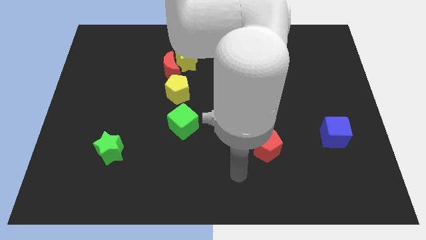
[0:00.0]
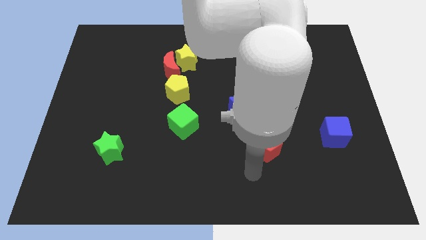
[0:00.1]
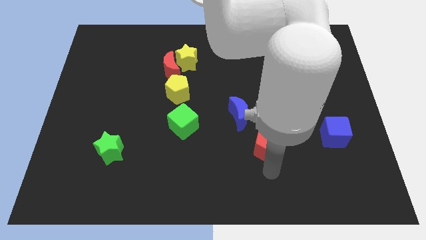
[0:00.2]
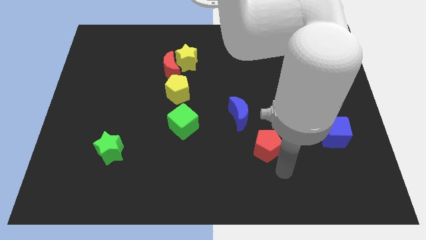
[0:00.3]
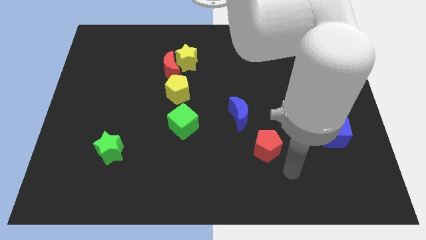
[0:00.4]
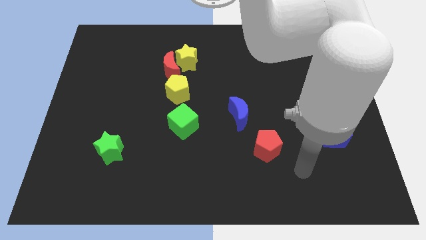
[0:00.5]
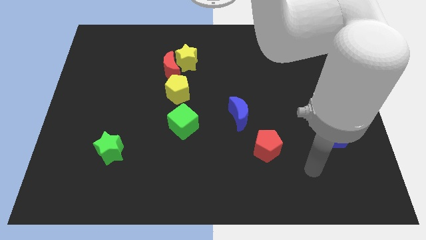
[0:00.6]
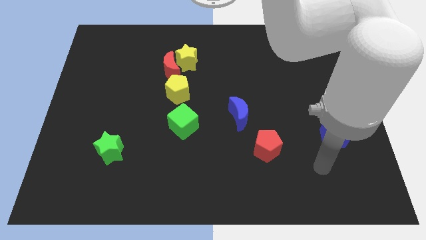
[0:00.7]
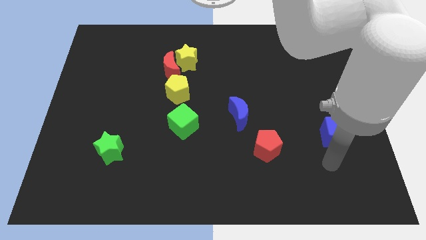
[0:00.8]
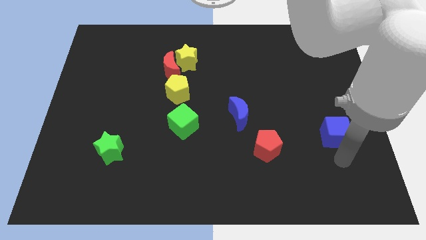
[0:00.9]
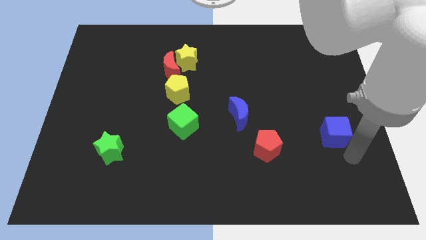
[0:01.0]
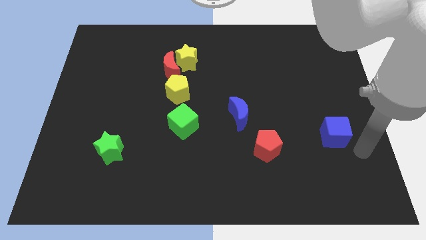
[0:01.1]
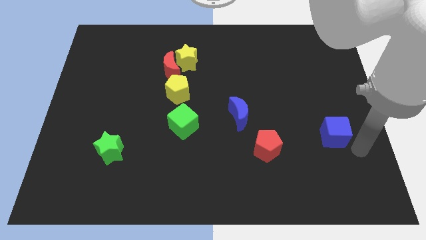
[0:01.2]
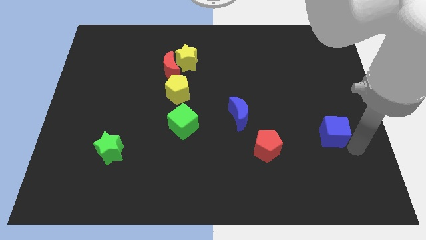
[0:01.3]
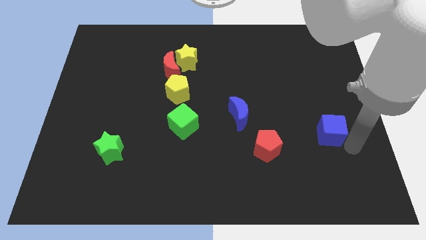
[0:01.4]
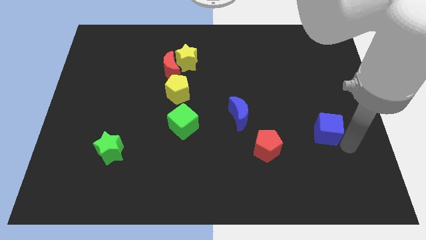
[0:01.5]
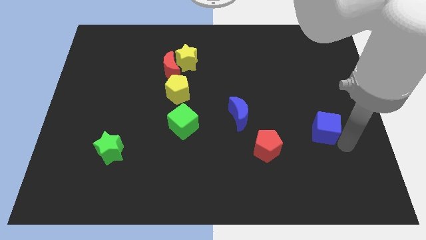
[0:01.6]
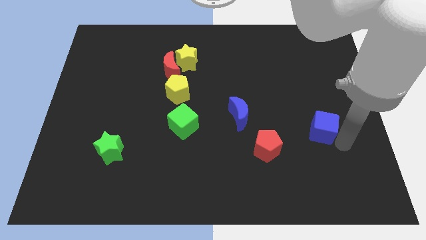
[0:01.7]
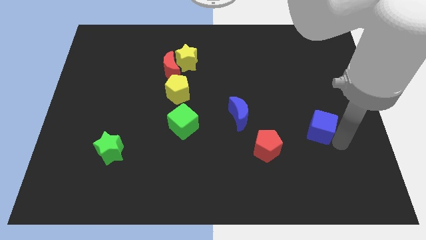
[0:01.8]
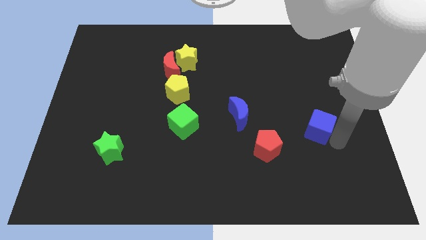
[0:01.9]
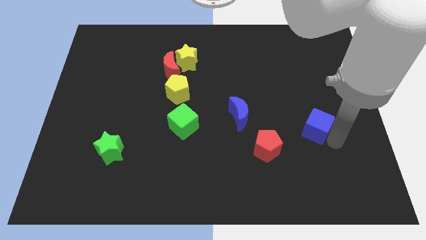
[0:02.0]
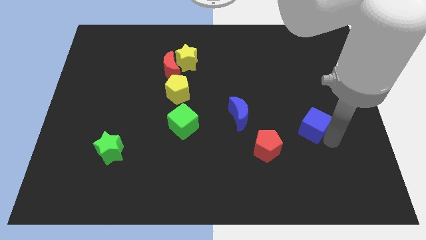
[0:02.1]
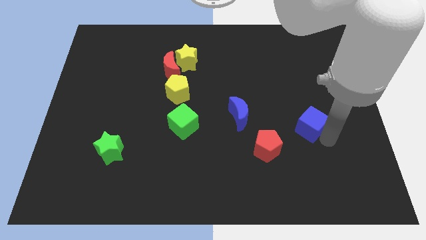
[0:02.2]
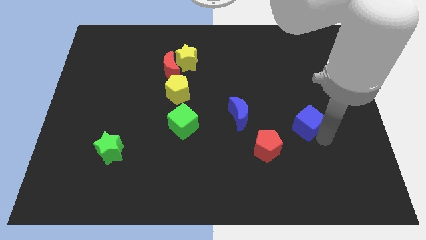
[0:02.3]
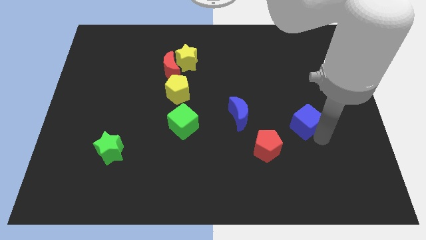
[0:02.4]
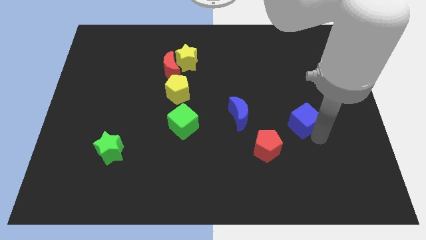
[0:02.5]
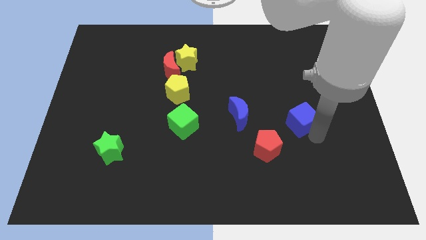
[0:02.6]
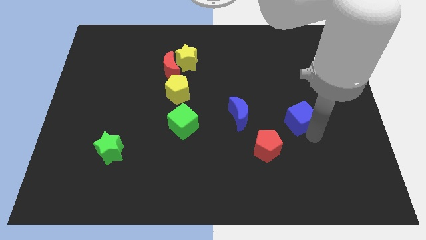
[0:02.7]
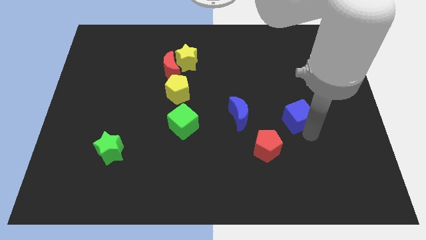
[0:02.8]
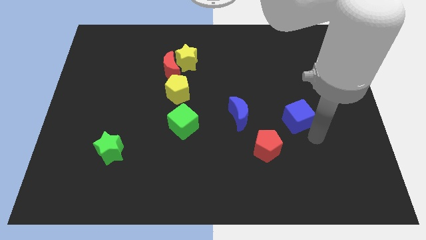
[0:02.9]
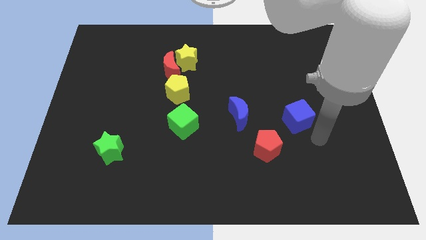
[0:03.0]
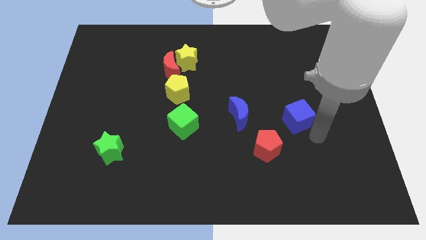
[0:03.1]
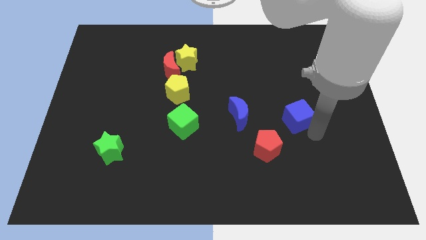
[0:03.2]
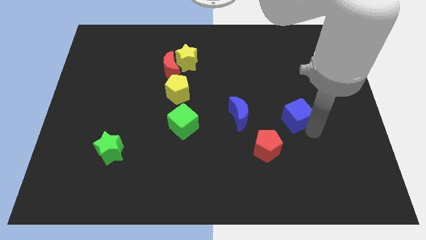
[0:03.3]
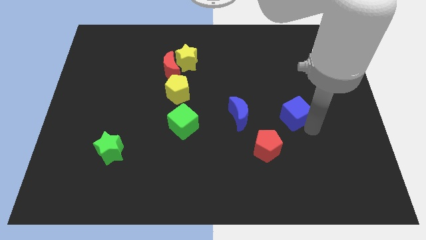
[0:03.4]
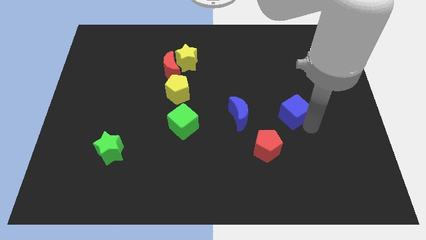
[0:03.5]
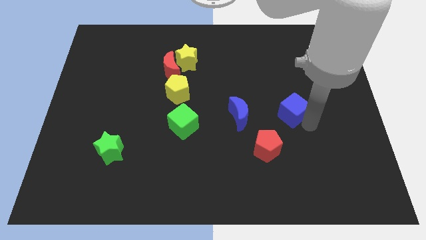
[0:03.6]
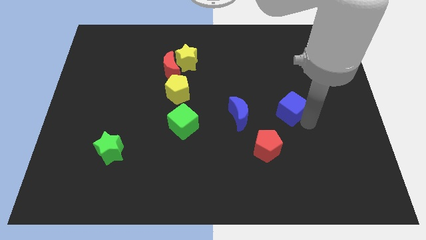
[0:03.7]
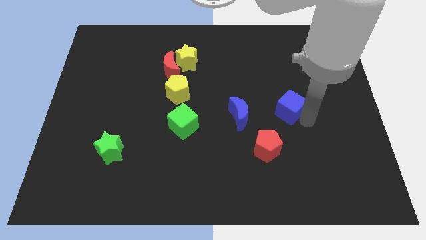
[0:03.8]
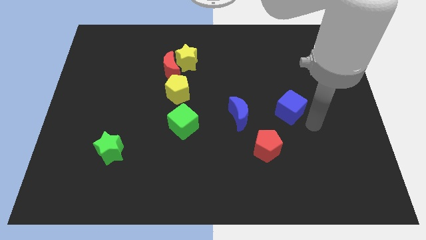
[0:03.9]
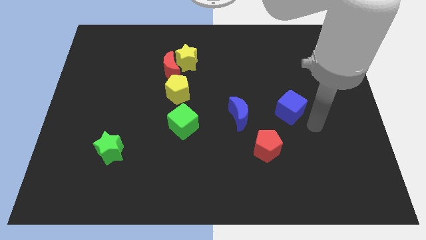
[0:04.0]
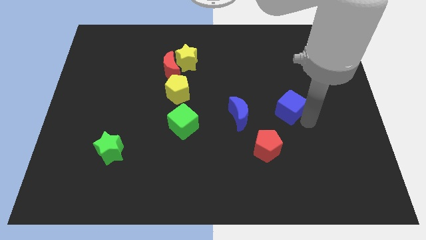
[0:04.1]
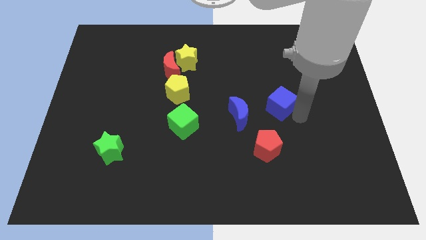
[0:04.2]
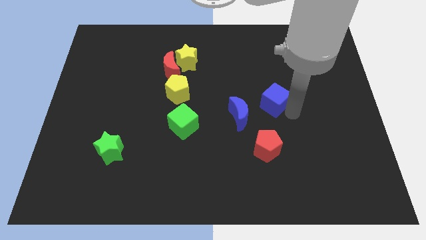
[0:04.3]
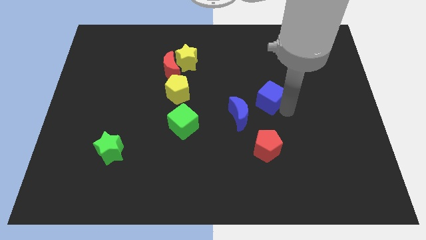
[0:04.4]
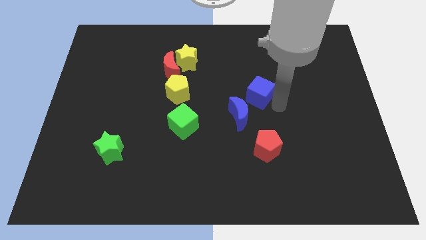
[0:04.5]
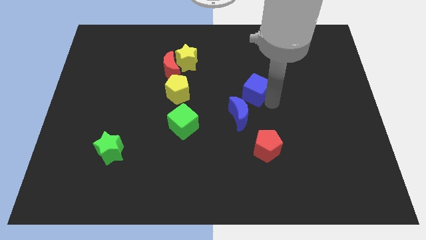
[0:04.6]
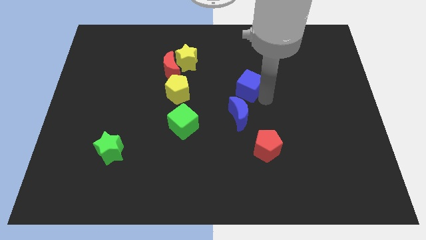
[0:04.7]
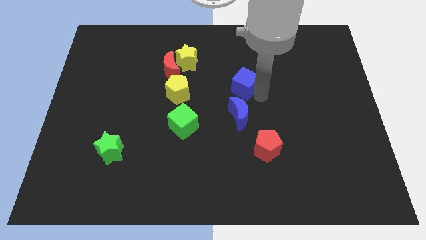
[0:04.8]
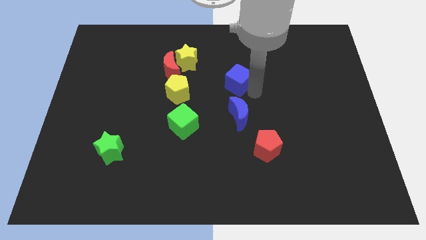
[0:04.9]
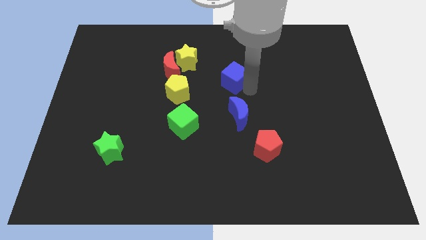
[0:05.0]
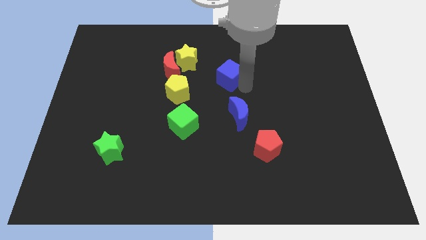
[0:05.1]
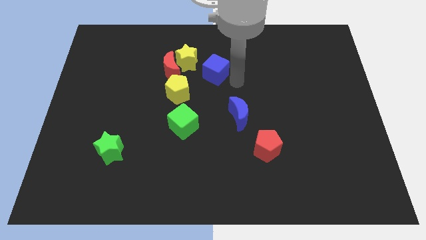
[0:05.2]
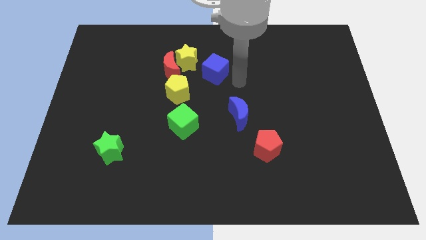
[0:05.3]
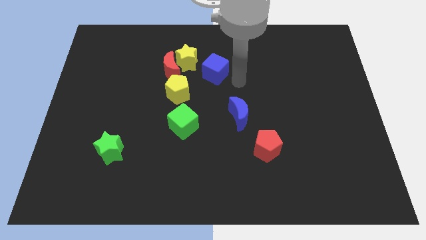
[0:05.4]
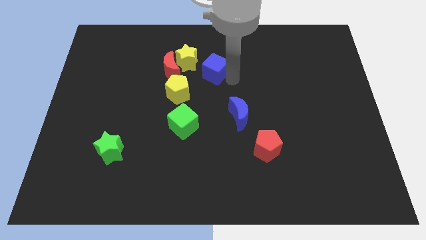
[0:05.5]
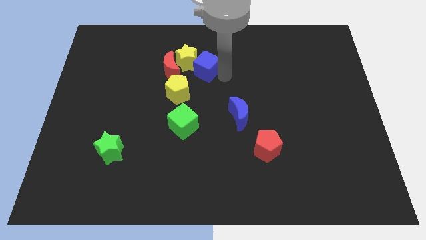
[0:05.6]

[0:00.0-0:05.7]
slide the blue cube to the yellow star

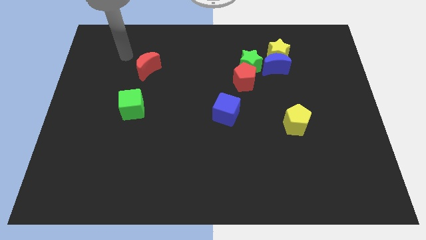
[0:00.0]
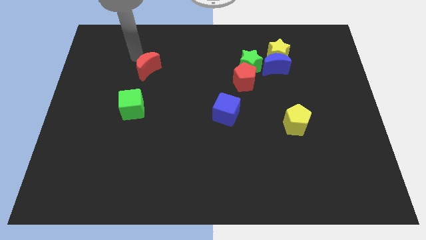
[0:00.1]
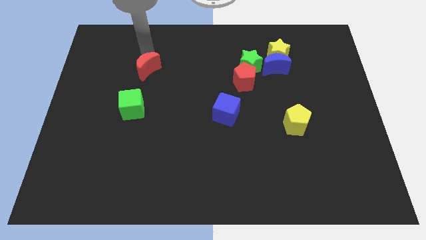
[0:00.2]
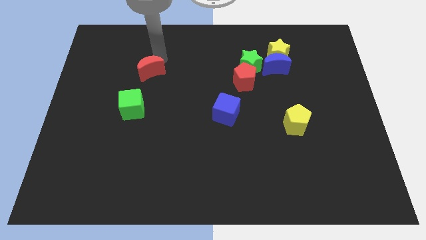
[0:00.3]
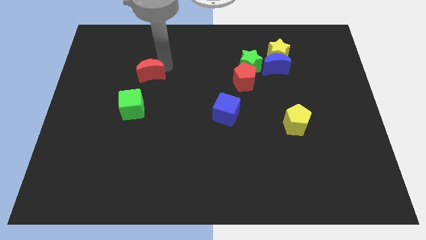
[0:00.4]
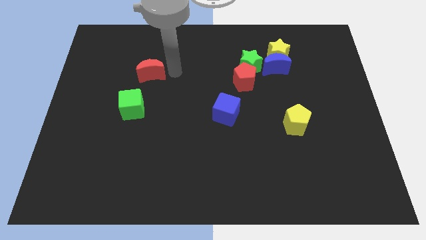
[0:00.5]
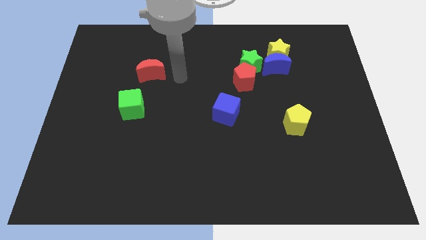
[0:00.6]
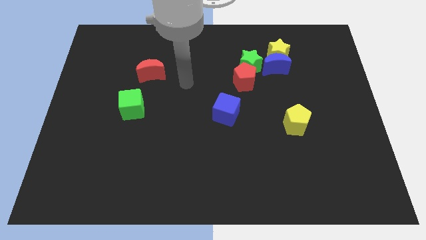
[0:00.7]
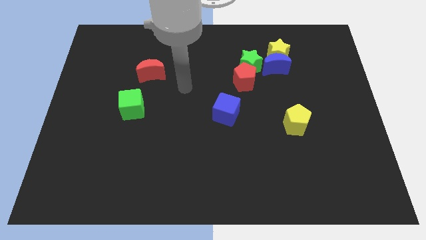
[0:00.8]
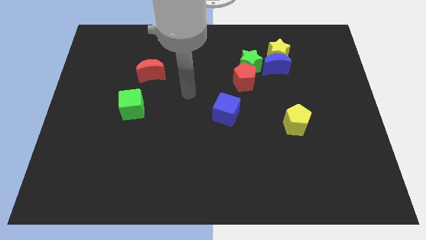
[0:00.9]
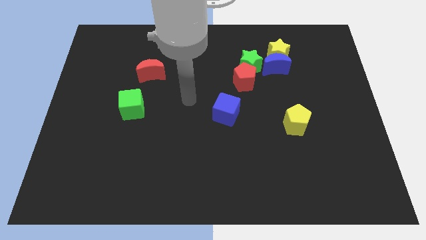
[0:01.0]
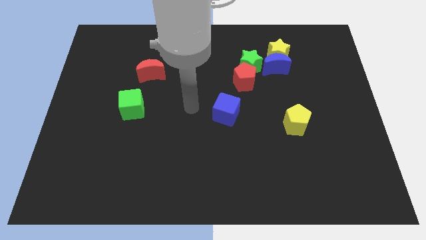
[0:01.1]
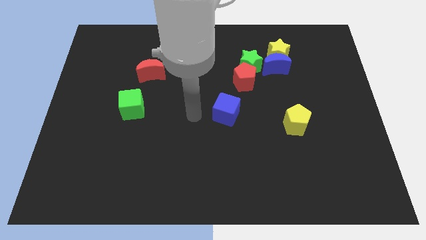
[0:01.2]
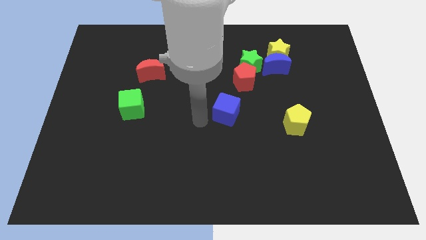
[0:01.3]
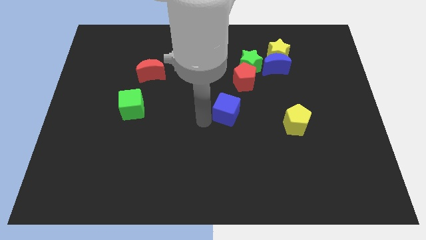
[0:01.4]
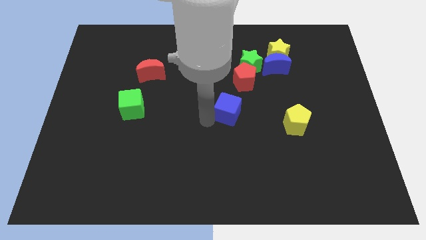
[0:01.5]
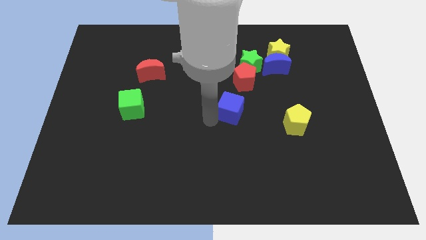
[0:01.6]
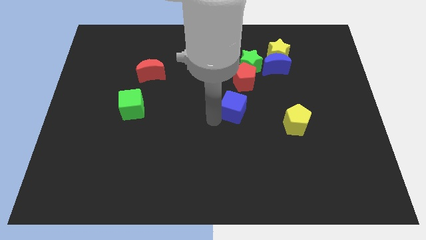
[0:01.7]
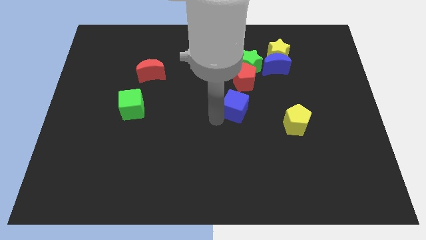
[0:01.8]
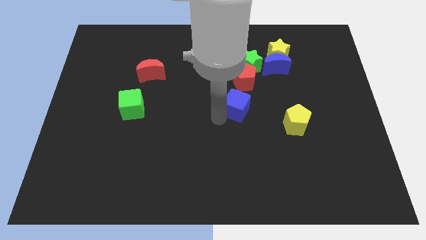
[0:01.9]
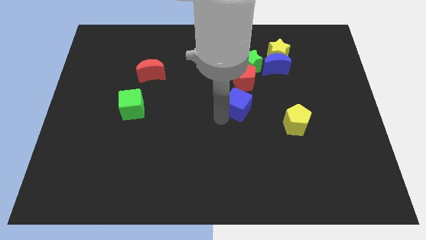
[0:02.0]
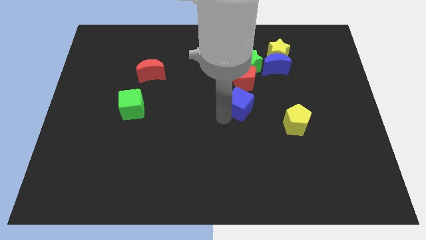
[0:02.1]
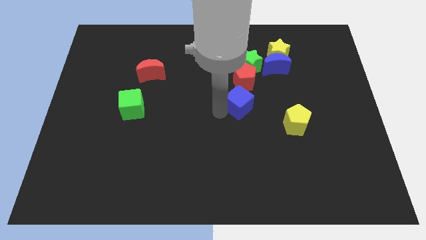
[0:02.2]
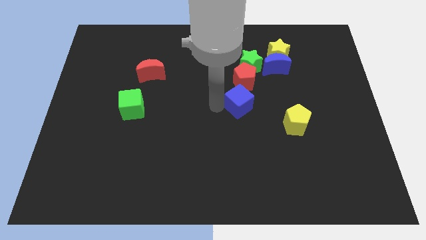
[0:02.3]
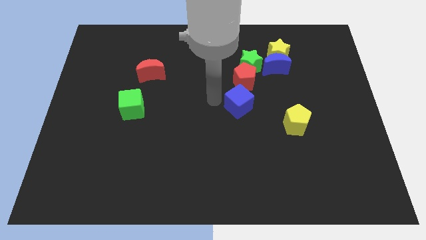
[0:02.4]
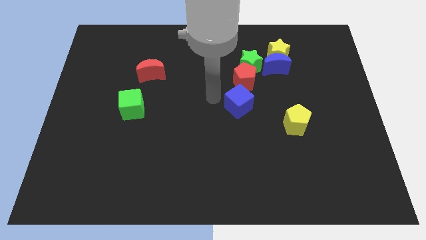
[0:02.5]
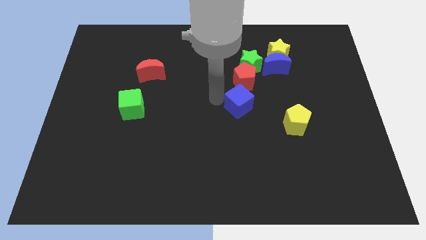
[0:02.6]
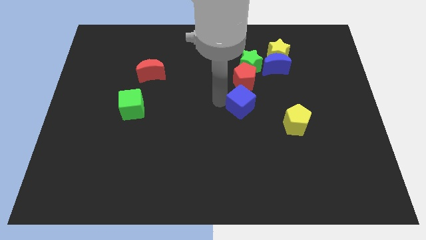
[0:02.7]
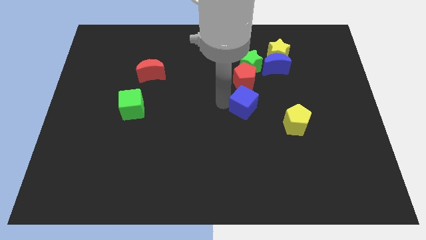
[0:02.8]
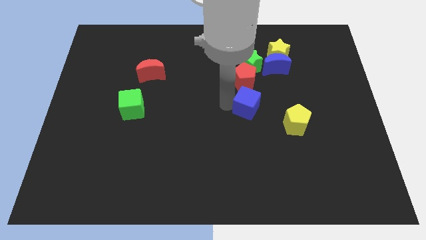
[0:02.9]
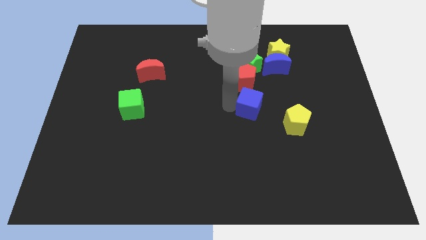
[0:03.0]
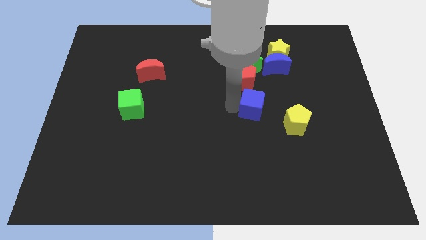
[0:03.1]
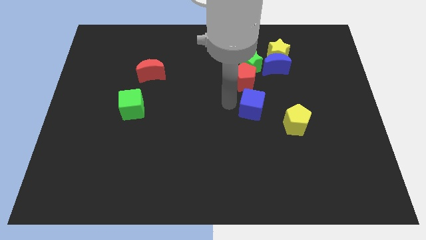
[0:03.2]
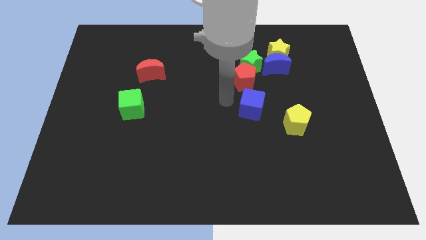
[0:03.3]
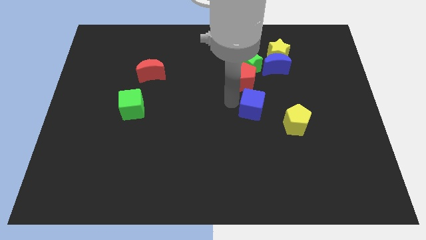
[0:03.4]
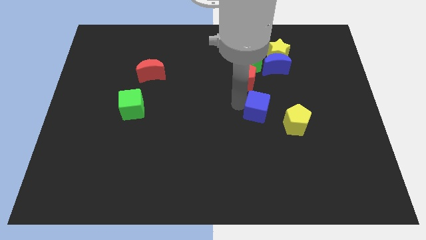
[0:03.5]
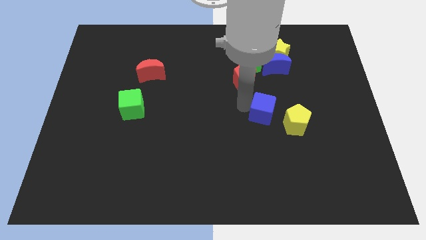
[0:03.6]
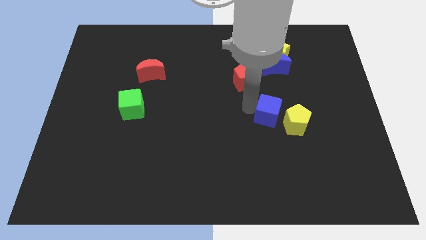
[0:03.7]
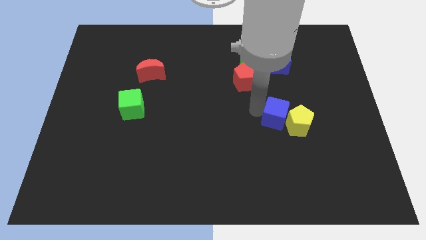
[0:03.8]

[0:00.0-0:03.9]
slide the blue cube towards the yellow pentagon
